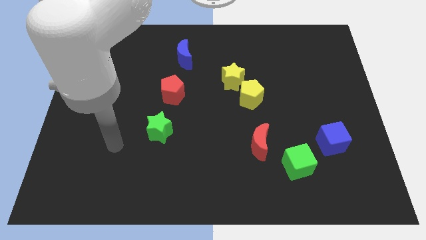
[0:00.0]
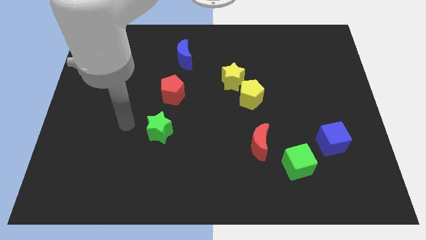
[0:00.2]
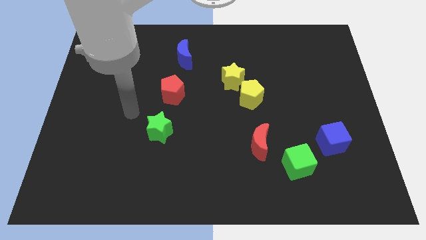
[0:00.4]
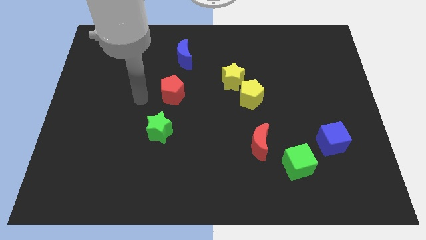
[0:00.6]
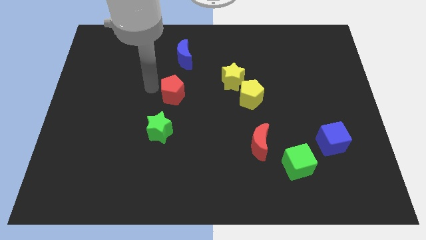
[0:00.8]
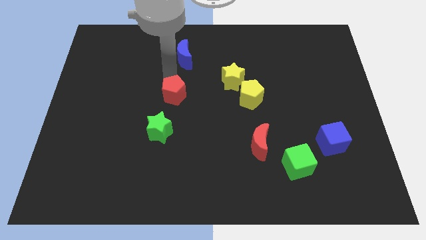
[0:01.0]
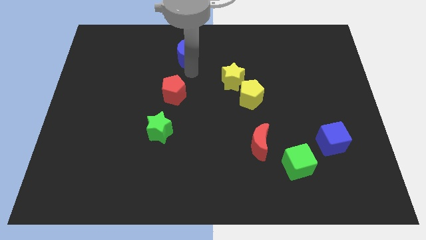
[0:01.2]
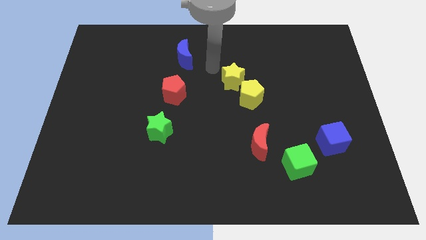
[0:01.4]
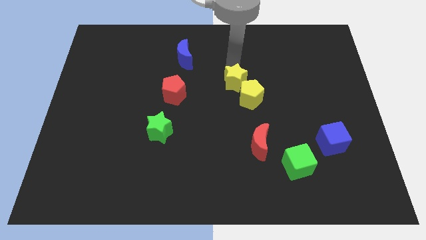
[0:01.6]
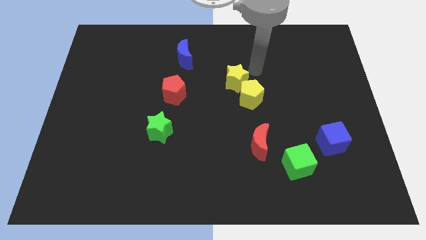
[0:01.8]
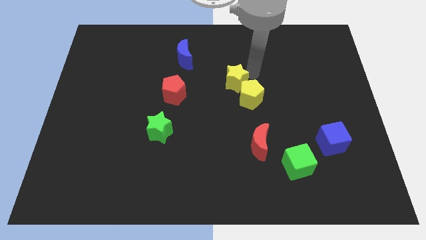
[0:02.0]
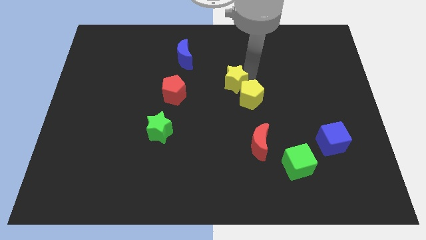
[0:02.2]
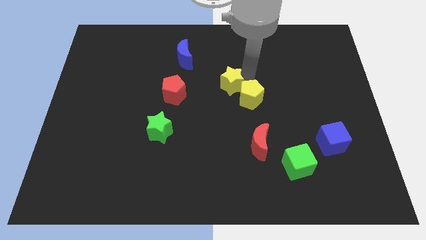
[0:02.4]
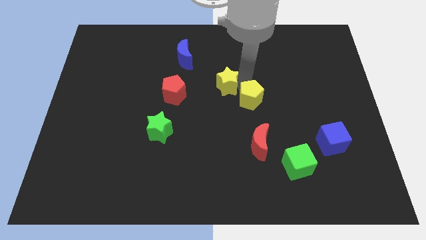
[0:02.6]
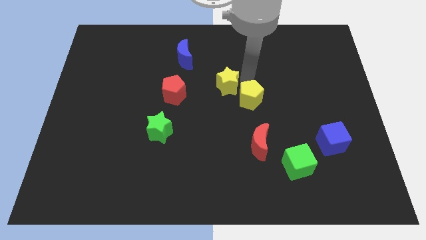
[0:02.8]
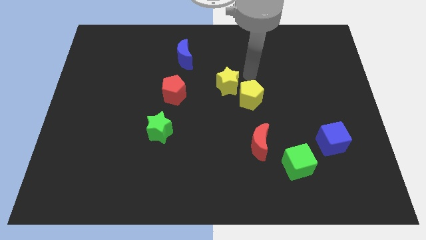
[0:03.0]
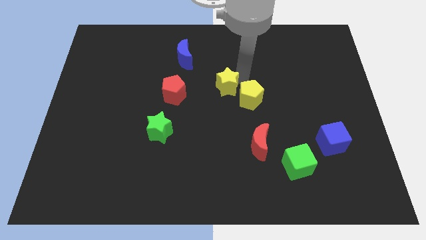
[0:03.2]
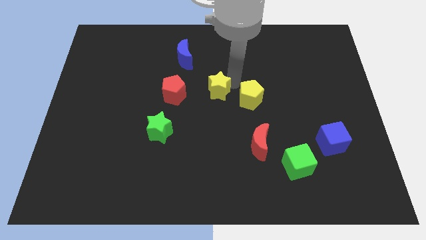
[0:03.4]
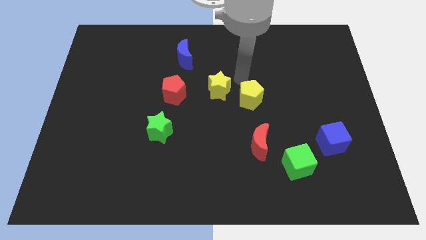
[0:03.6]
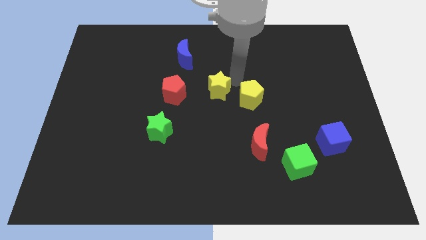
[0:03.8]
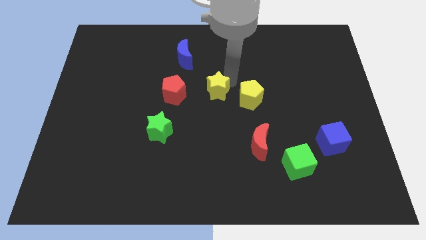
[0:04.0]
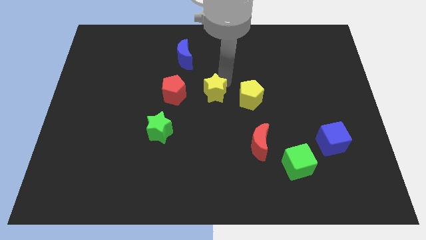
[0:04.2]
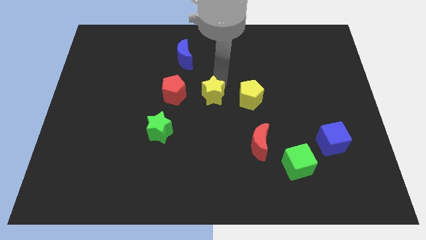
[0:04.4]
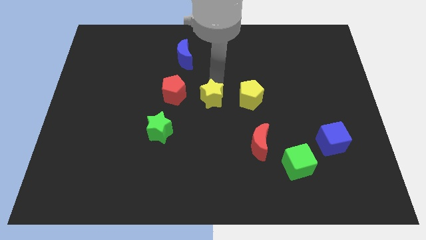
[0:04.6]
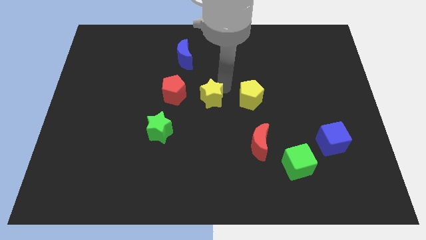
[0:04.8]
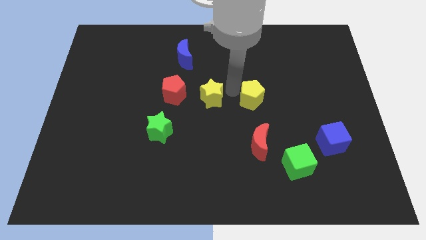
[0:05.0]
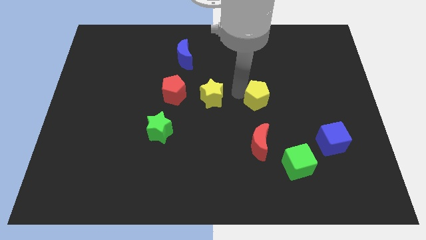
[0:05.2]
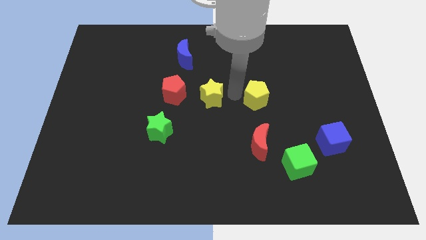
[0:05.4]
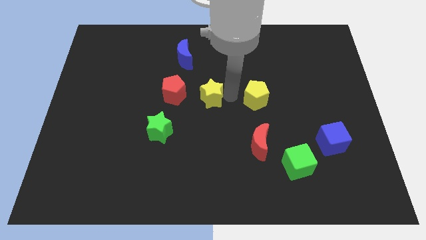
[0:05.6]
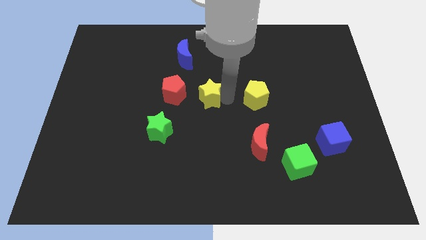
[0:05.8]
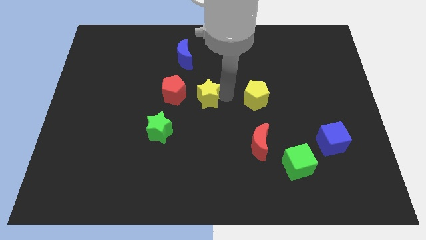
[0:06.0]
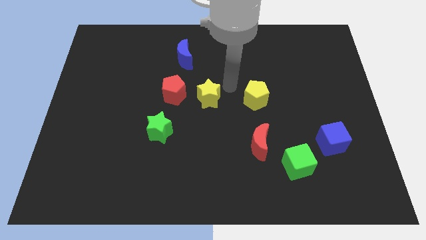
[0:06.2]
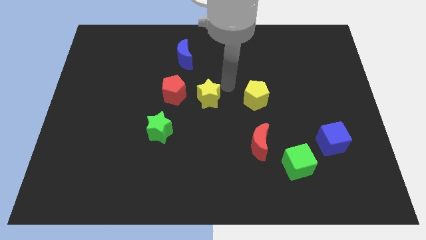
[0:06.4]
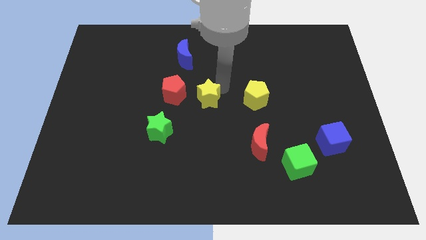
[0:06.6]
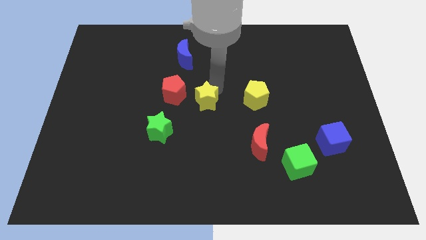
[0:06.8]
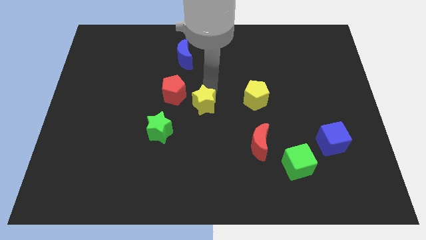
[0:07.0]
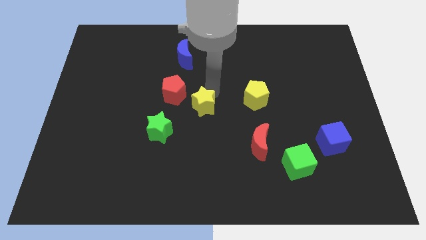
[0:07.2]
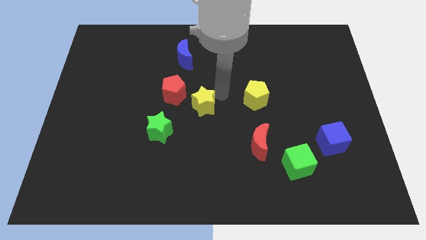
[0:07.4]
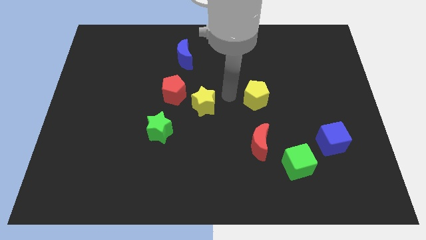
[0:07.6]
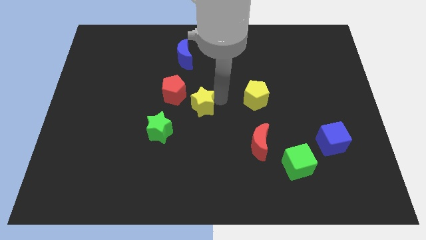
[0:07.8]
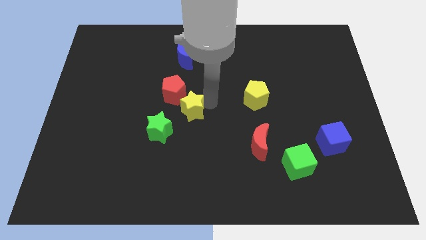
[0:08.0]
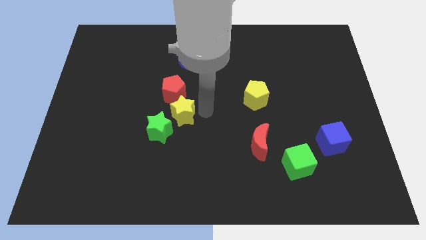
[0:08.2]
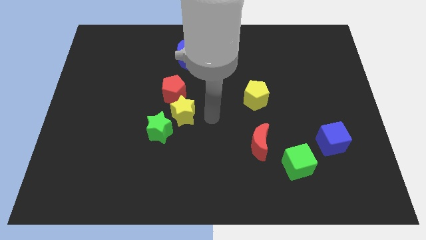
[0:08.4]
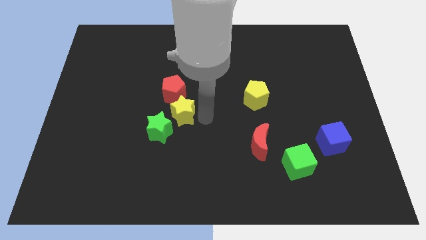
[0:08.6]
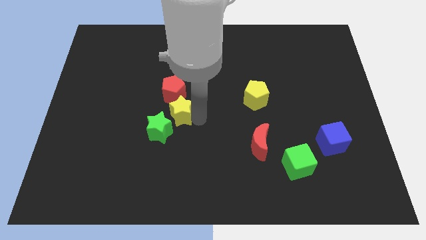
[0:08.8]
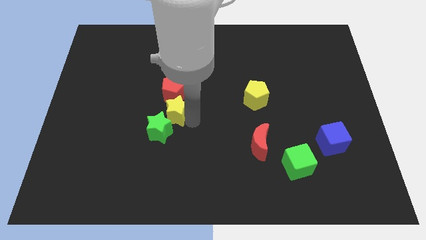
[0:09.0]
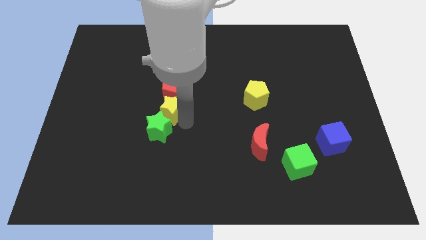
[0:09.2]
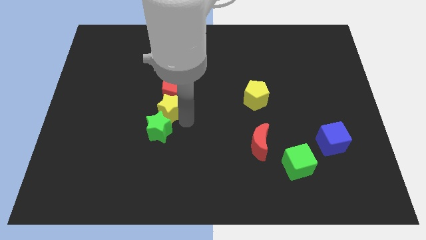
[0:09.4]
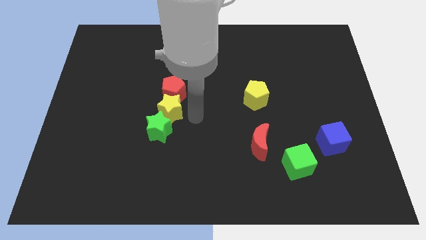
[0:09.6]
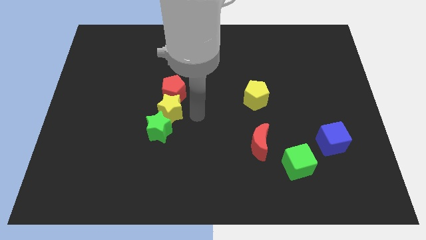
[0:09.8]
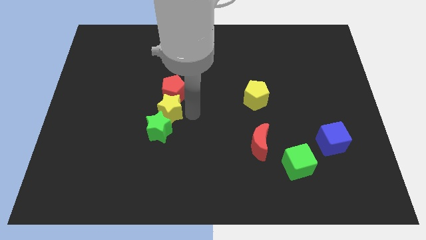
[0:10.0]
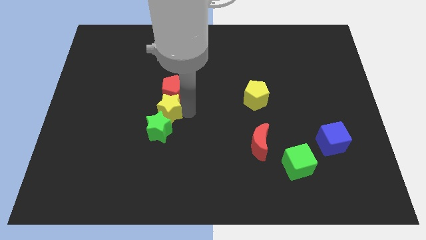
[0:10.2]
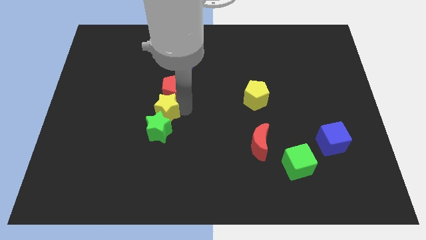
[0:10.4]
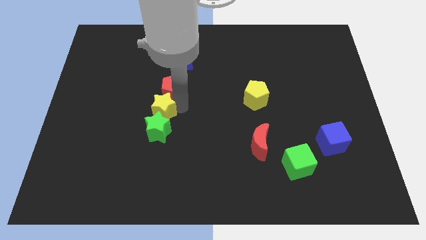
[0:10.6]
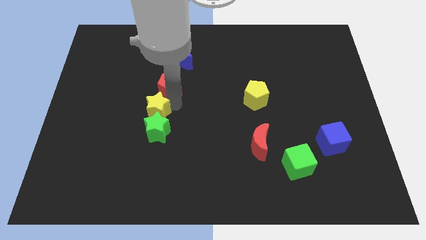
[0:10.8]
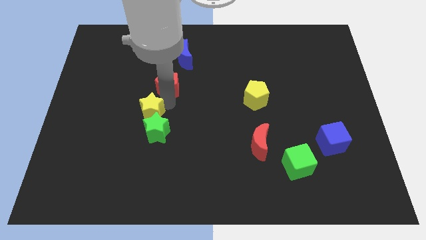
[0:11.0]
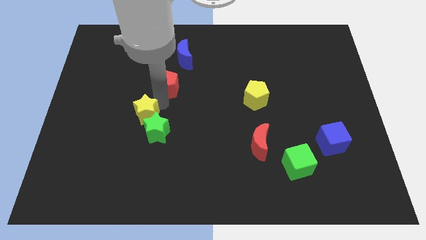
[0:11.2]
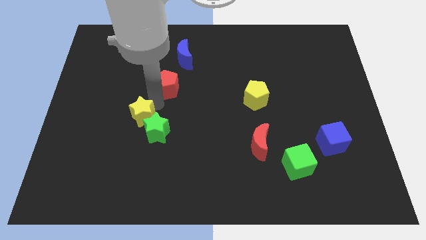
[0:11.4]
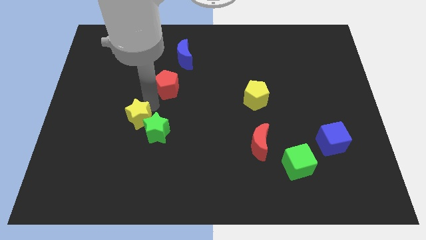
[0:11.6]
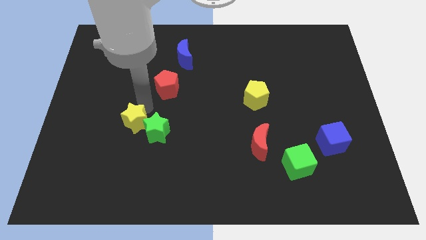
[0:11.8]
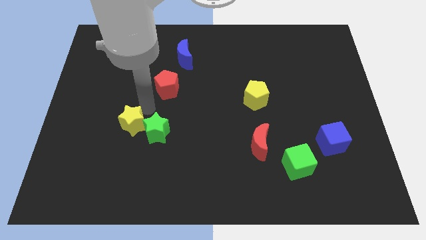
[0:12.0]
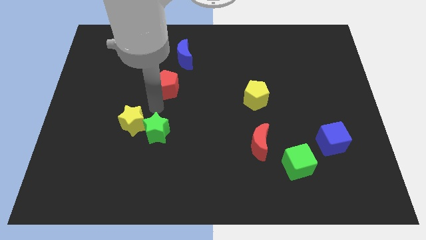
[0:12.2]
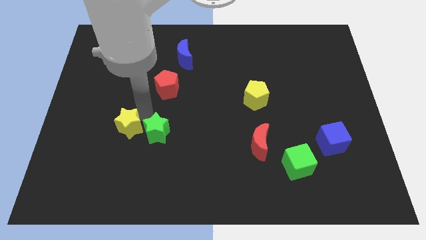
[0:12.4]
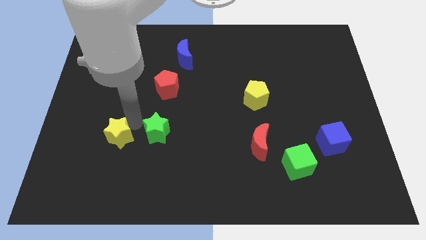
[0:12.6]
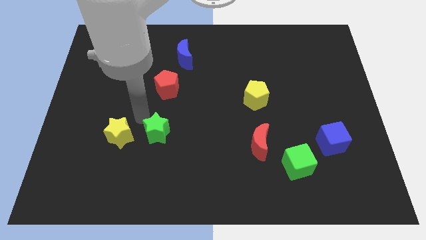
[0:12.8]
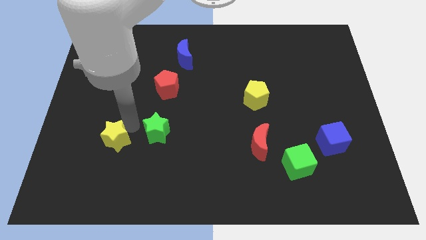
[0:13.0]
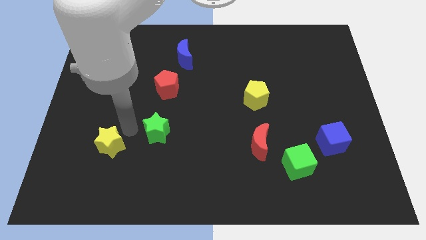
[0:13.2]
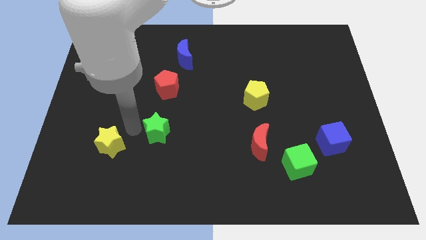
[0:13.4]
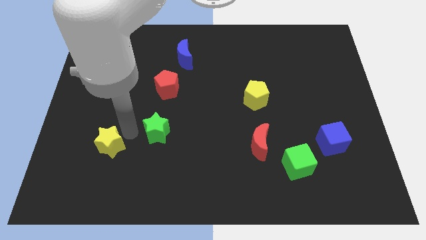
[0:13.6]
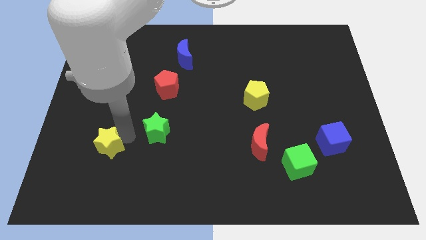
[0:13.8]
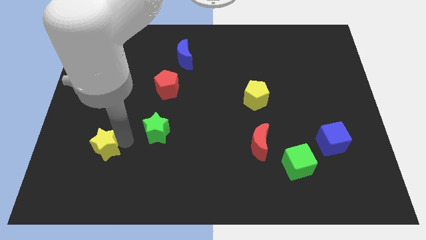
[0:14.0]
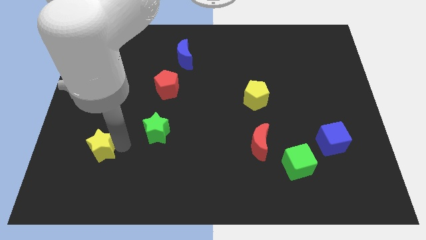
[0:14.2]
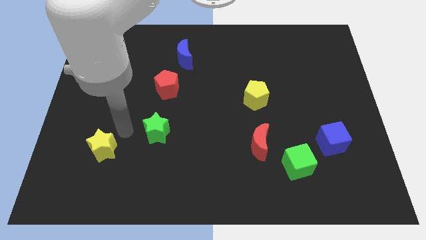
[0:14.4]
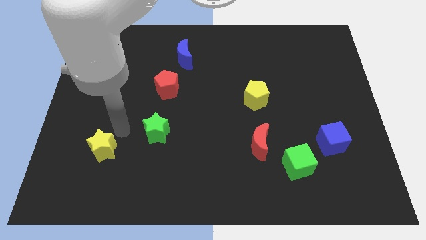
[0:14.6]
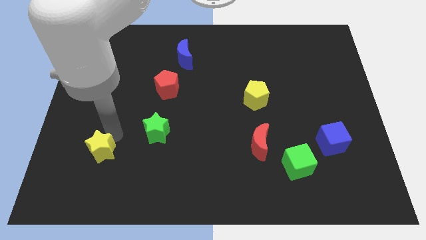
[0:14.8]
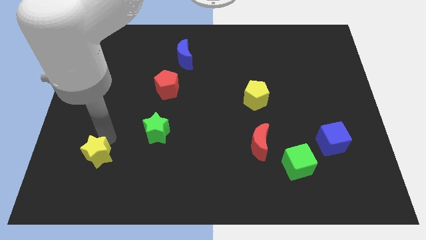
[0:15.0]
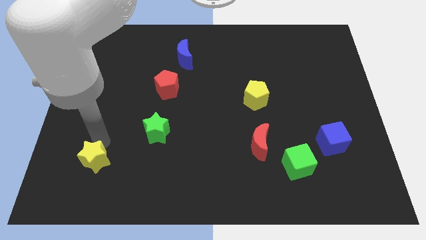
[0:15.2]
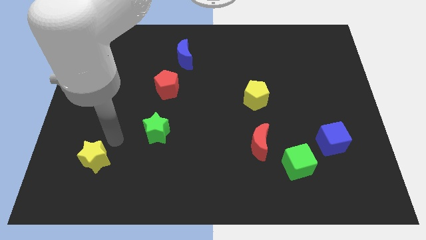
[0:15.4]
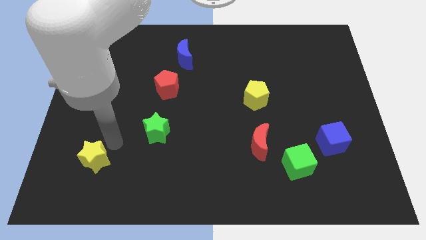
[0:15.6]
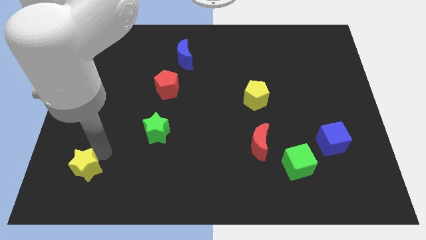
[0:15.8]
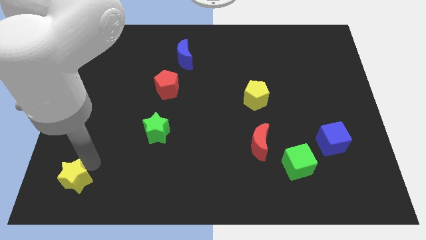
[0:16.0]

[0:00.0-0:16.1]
put the yellow star to the bottom left corner
